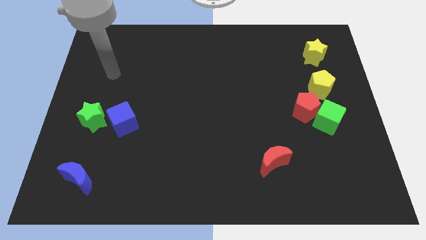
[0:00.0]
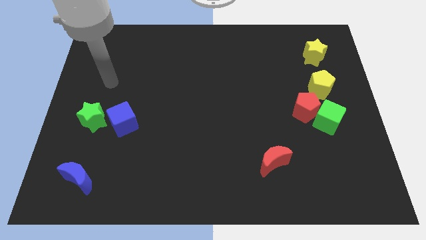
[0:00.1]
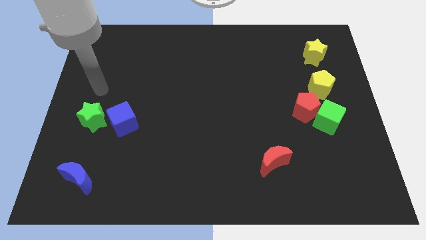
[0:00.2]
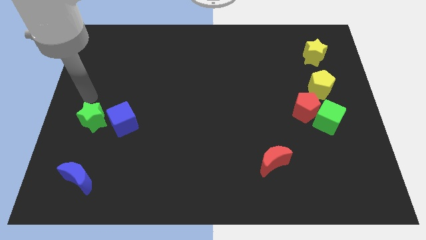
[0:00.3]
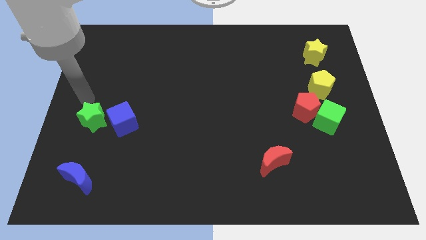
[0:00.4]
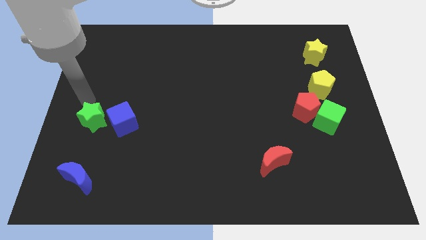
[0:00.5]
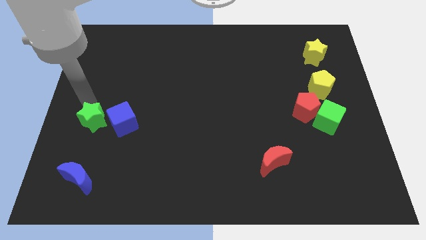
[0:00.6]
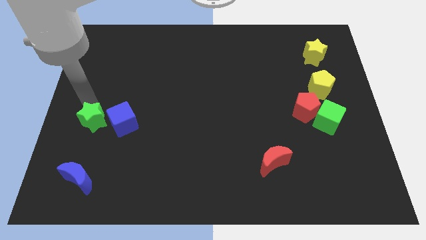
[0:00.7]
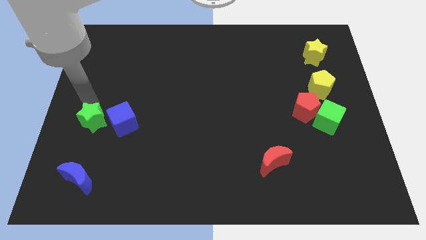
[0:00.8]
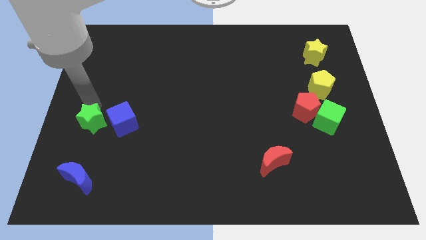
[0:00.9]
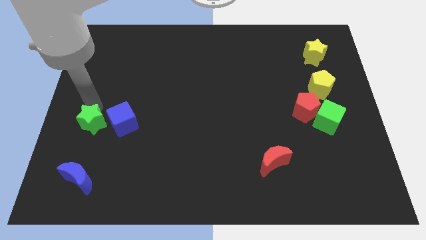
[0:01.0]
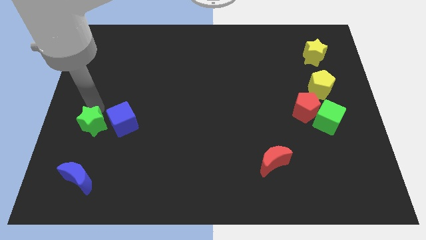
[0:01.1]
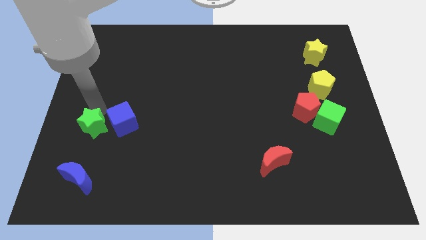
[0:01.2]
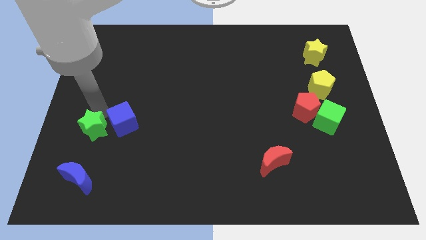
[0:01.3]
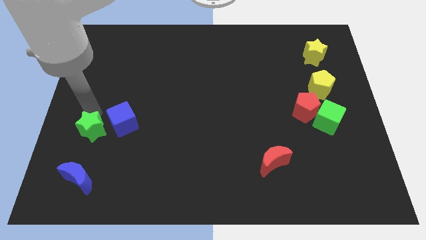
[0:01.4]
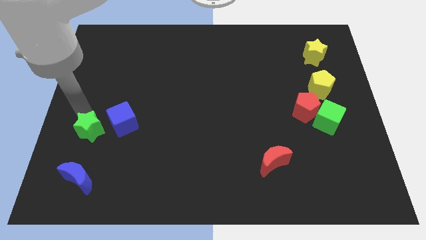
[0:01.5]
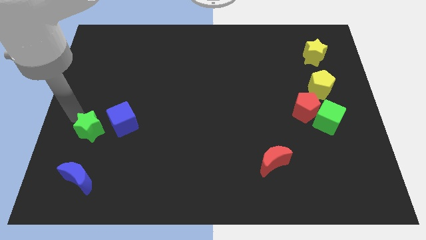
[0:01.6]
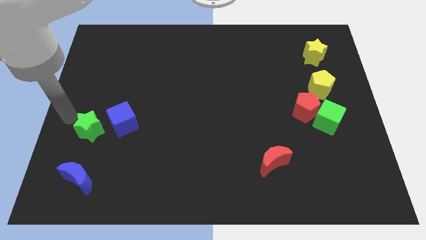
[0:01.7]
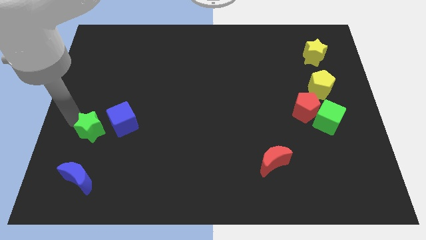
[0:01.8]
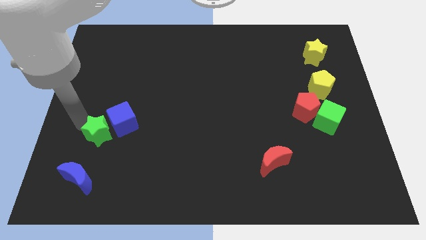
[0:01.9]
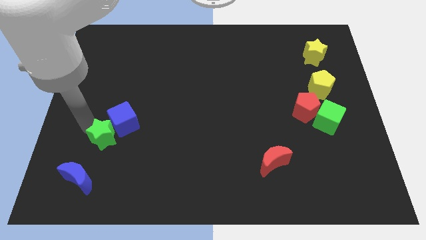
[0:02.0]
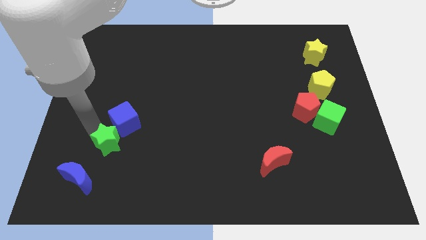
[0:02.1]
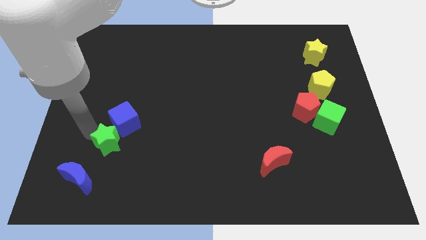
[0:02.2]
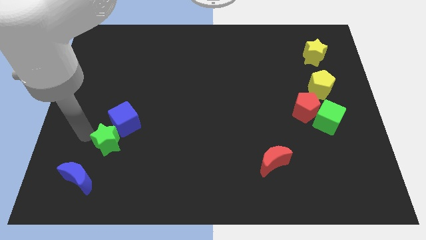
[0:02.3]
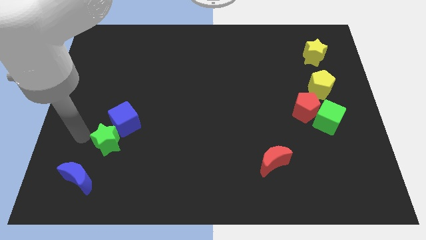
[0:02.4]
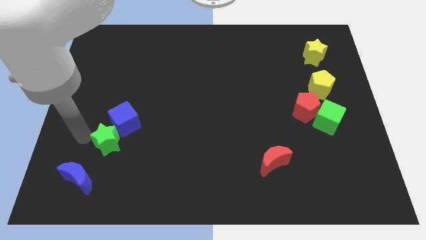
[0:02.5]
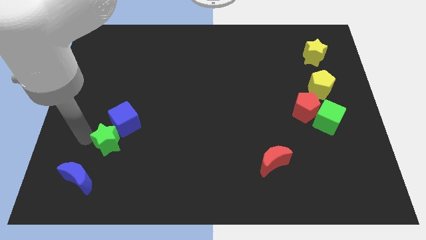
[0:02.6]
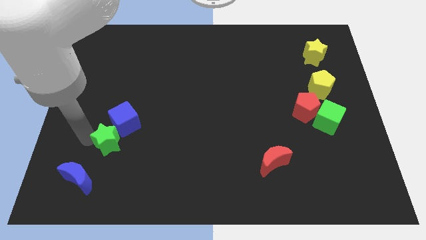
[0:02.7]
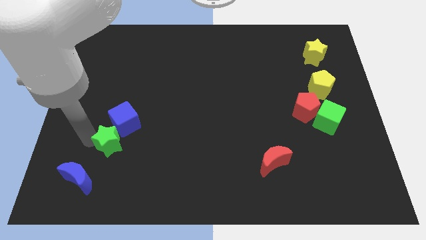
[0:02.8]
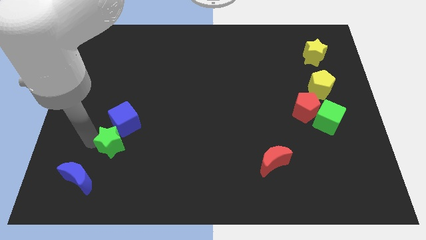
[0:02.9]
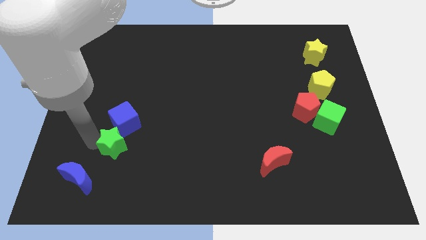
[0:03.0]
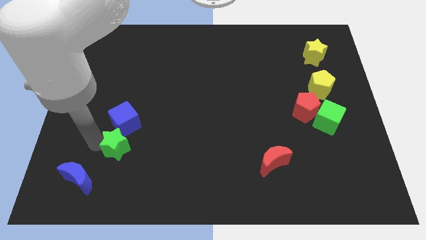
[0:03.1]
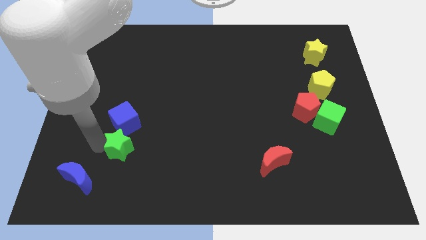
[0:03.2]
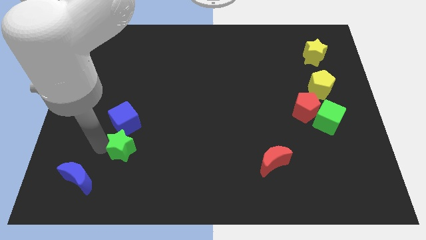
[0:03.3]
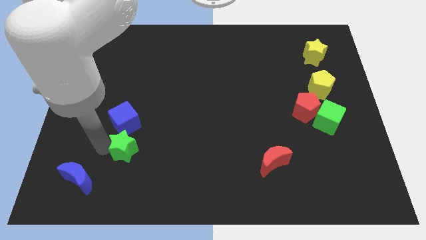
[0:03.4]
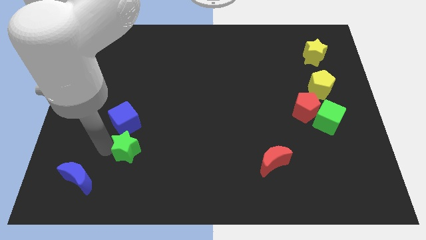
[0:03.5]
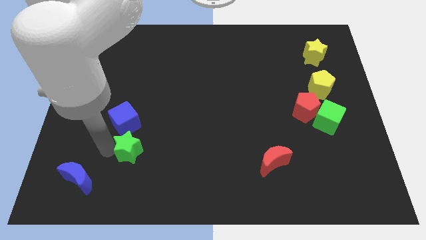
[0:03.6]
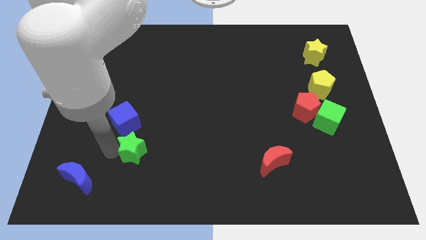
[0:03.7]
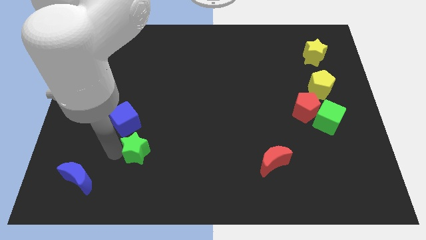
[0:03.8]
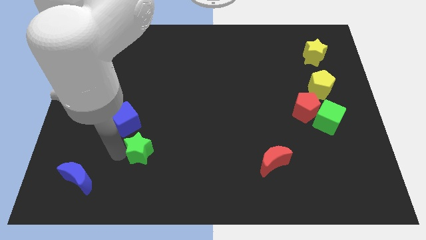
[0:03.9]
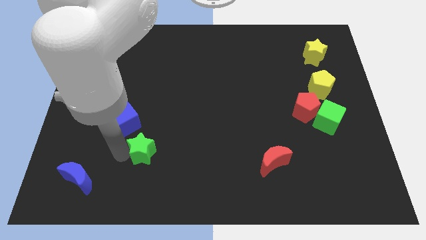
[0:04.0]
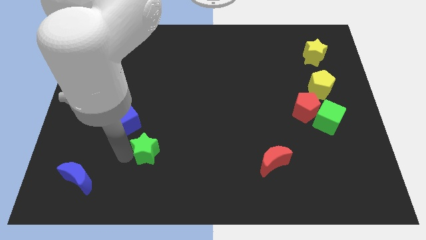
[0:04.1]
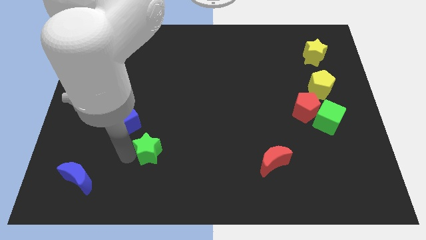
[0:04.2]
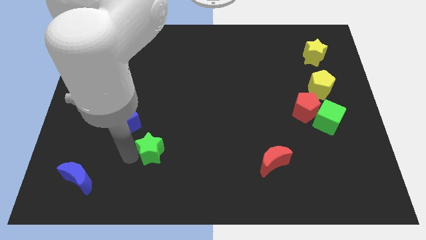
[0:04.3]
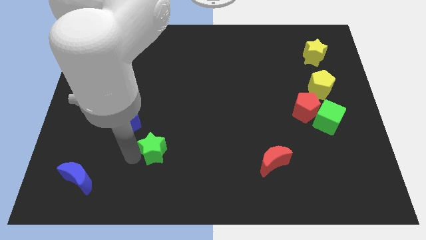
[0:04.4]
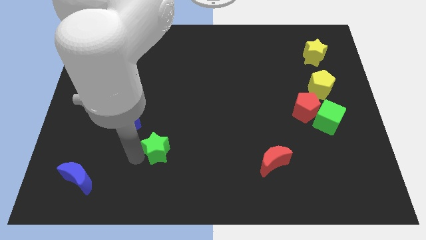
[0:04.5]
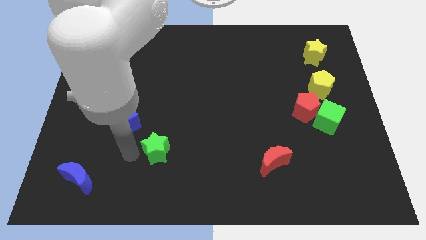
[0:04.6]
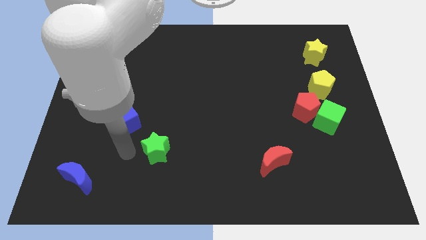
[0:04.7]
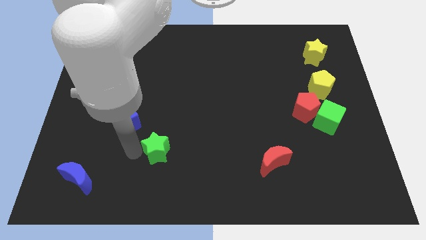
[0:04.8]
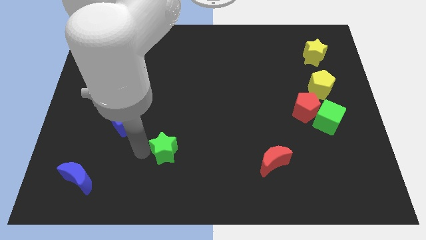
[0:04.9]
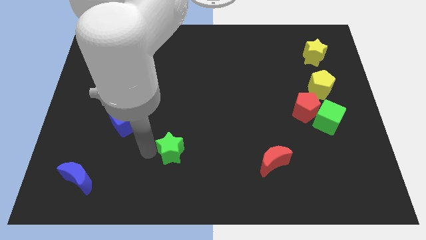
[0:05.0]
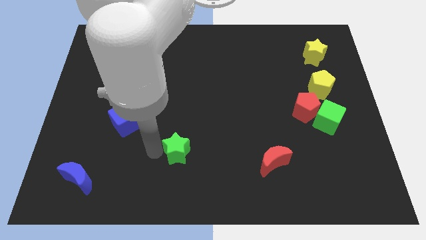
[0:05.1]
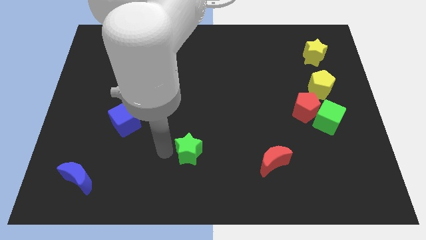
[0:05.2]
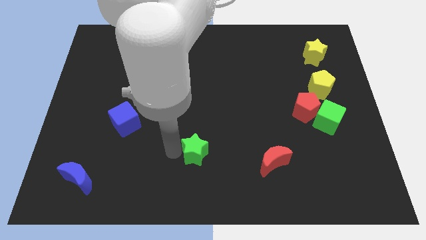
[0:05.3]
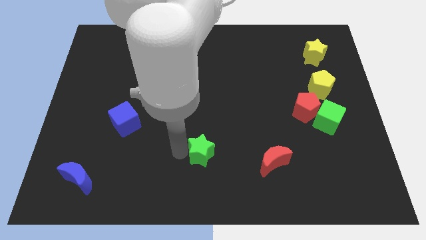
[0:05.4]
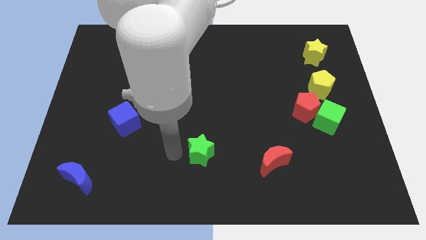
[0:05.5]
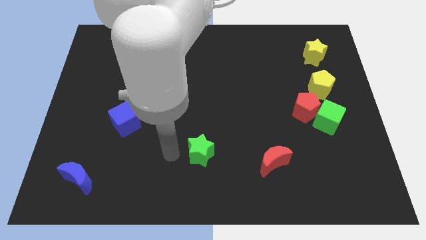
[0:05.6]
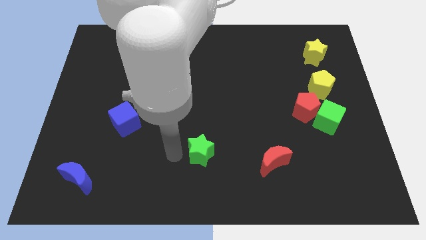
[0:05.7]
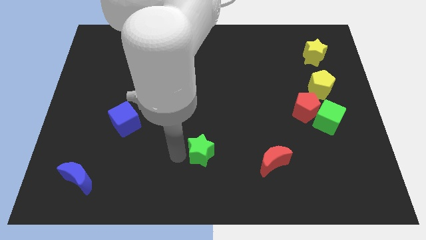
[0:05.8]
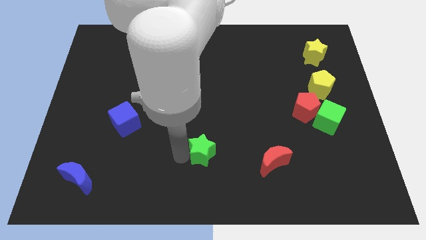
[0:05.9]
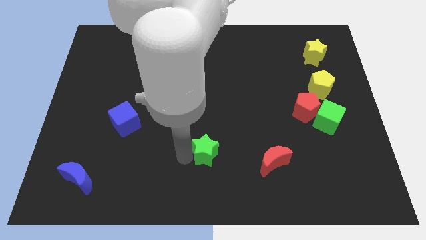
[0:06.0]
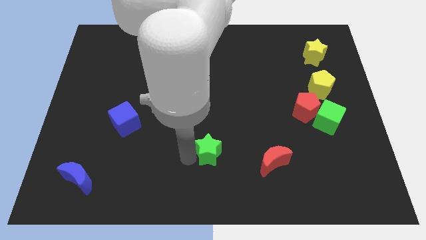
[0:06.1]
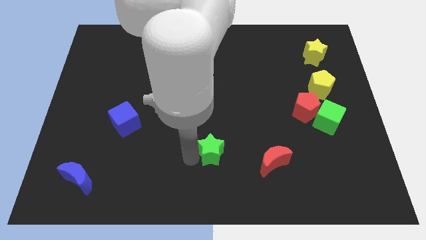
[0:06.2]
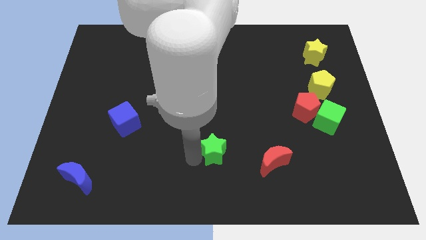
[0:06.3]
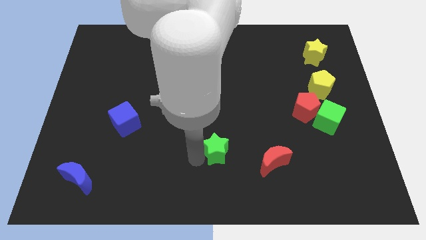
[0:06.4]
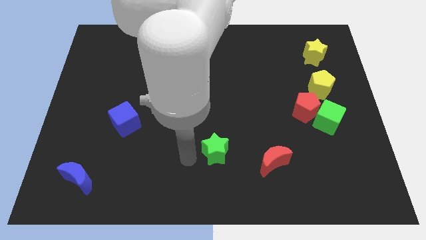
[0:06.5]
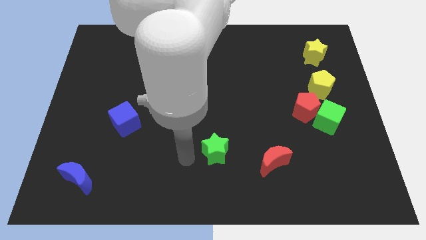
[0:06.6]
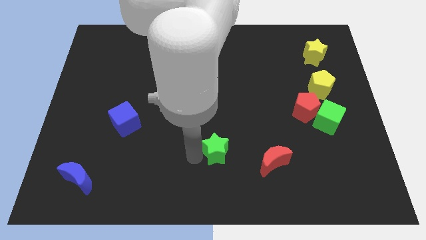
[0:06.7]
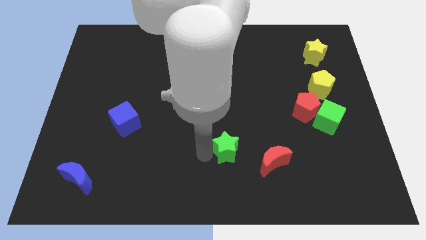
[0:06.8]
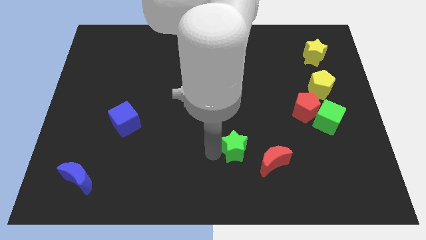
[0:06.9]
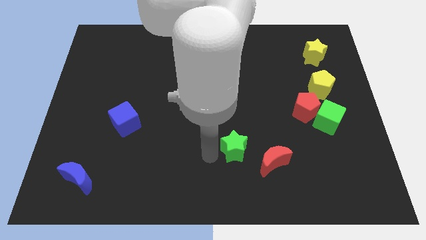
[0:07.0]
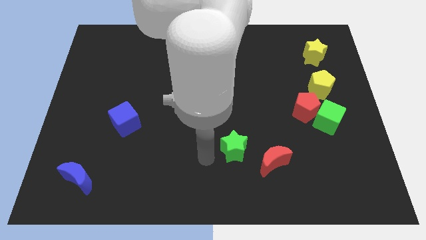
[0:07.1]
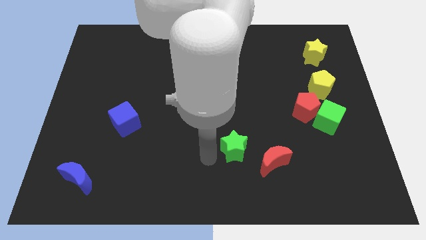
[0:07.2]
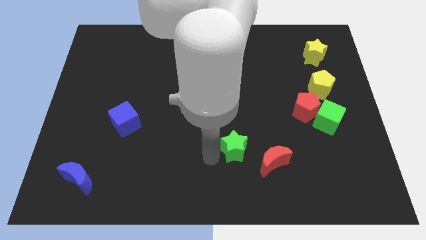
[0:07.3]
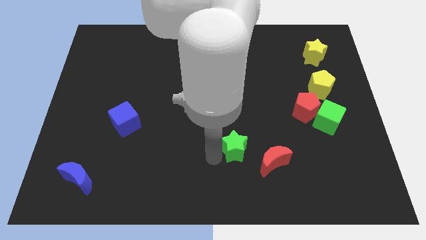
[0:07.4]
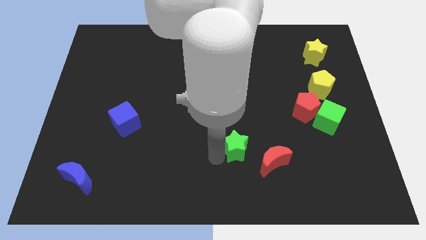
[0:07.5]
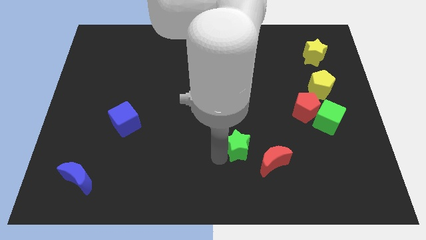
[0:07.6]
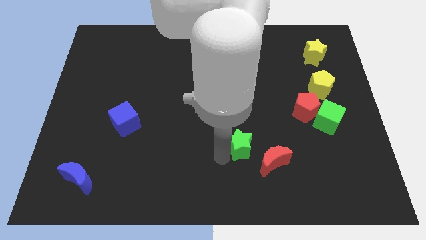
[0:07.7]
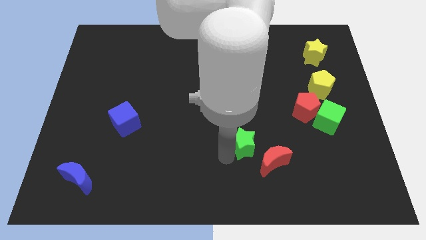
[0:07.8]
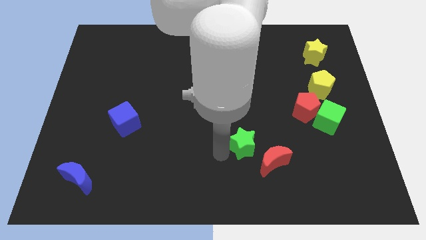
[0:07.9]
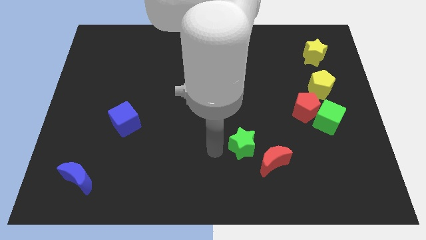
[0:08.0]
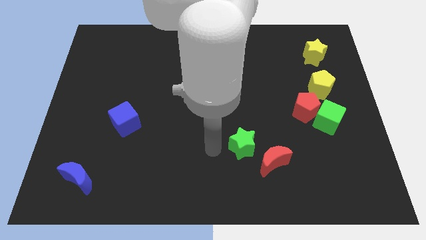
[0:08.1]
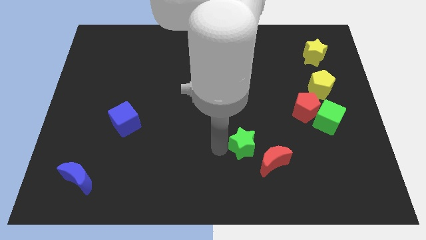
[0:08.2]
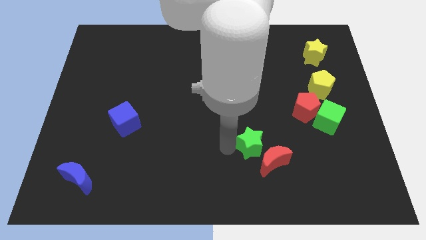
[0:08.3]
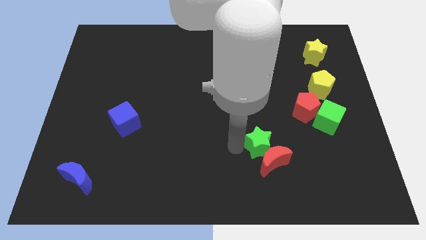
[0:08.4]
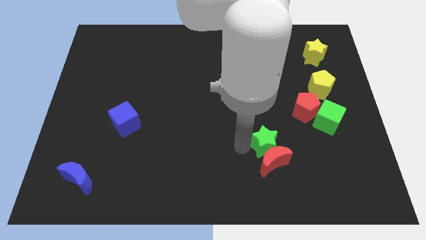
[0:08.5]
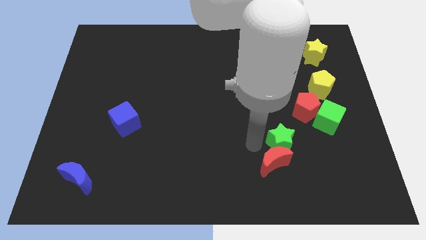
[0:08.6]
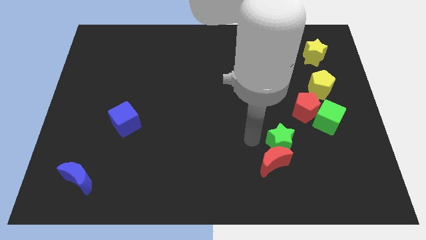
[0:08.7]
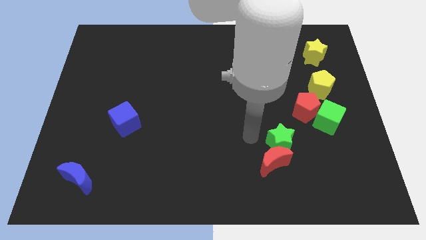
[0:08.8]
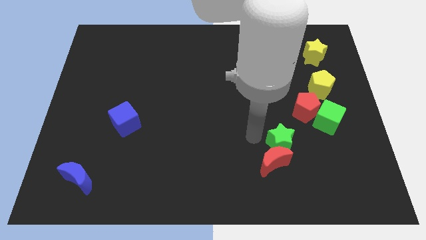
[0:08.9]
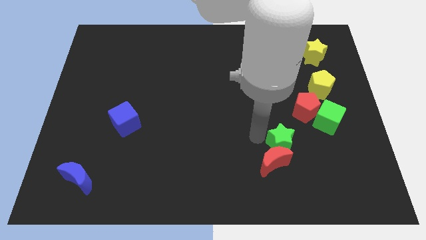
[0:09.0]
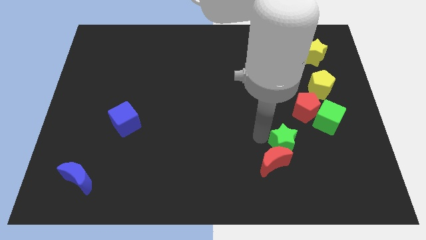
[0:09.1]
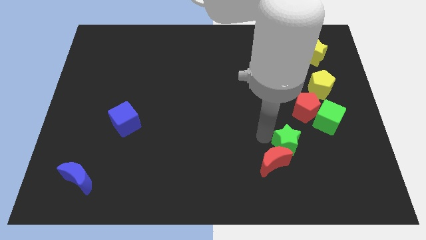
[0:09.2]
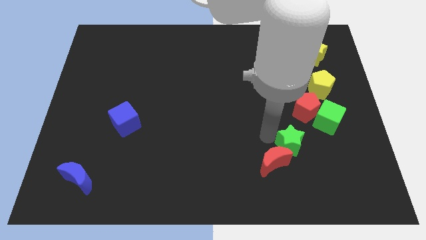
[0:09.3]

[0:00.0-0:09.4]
put the green star below the red pentagon
